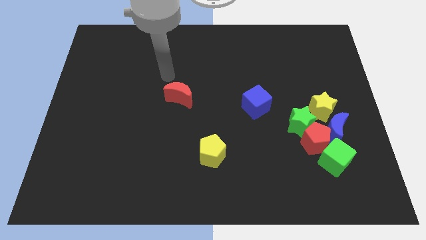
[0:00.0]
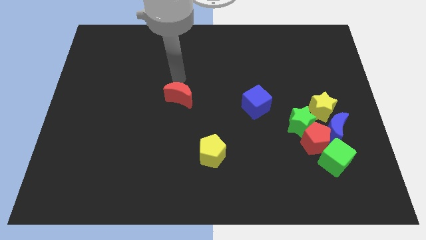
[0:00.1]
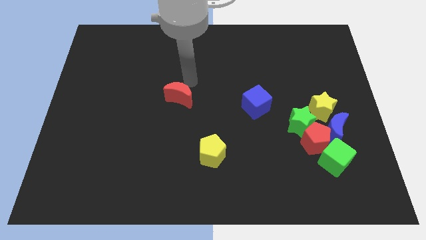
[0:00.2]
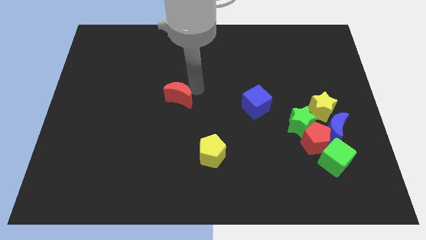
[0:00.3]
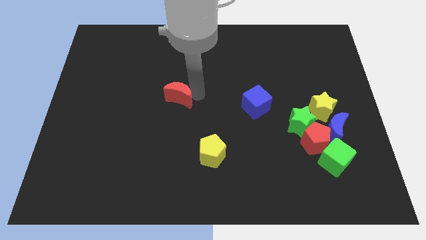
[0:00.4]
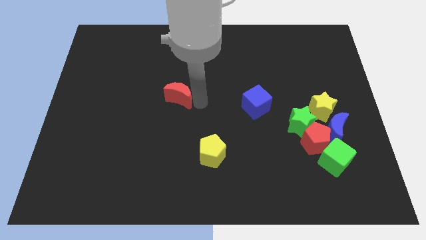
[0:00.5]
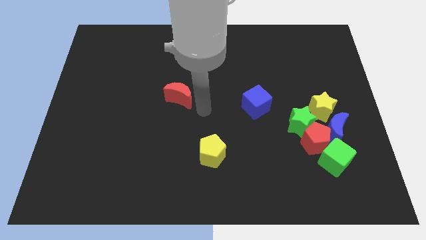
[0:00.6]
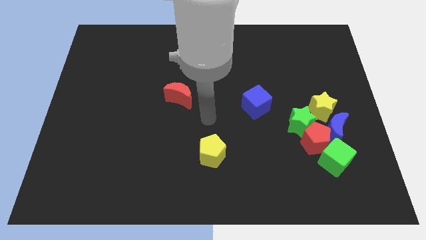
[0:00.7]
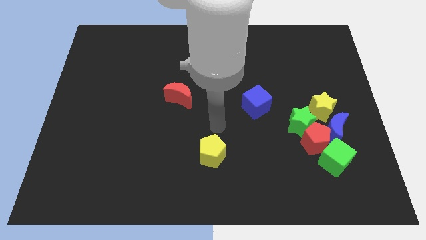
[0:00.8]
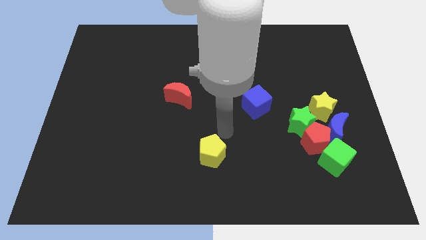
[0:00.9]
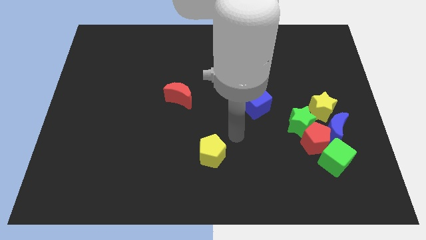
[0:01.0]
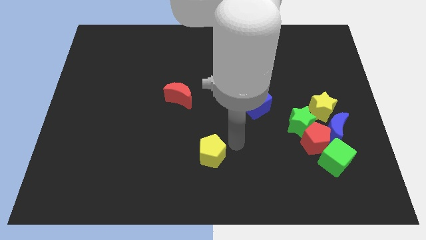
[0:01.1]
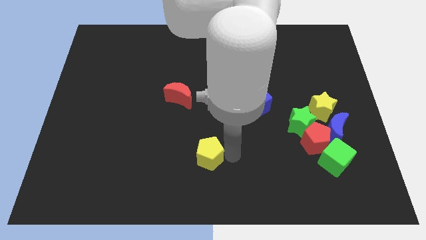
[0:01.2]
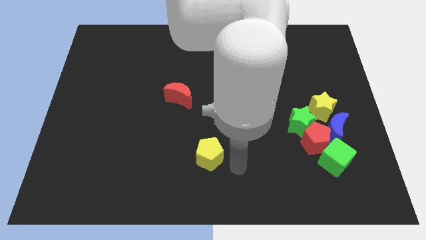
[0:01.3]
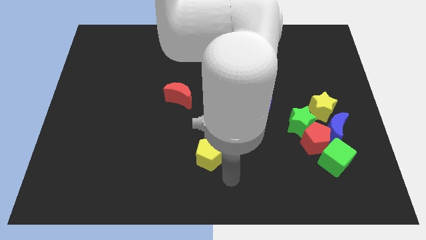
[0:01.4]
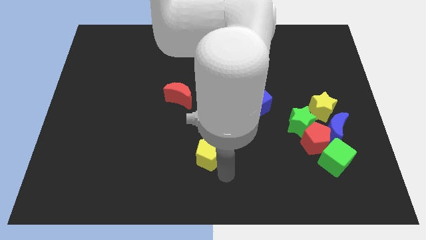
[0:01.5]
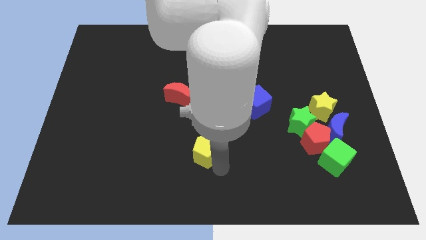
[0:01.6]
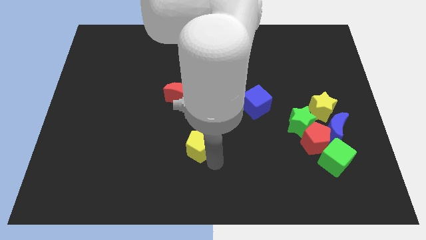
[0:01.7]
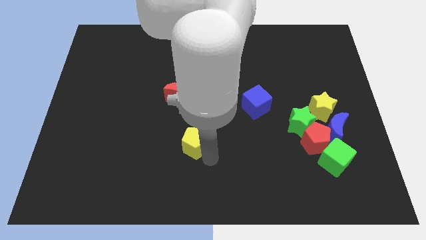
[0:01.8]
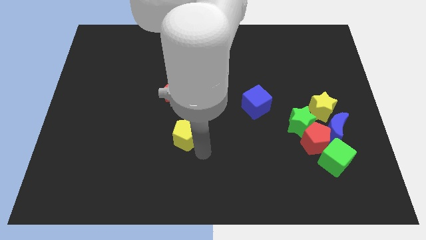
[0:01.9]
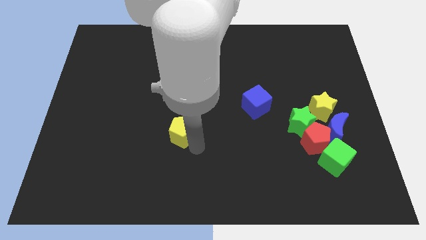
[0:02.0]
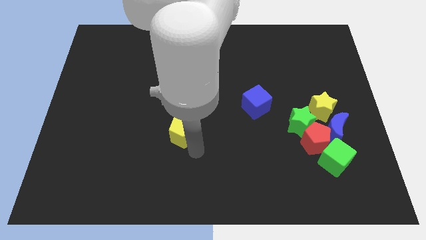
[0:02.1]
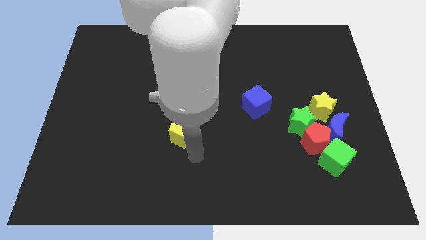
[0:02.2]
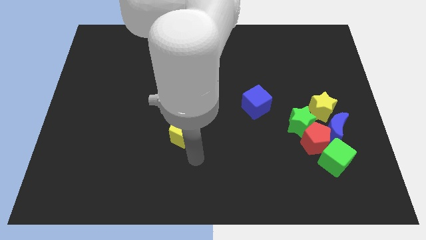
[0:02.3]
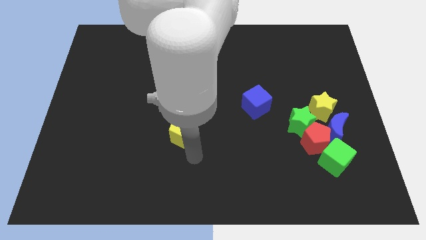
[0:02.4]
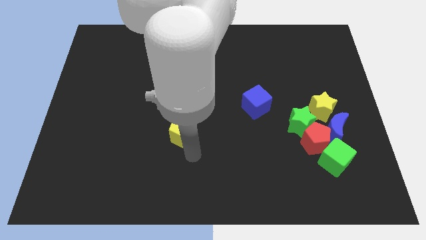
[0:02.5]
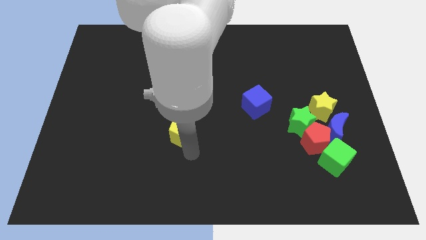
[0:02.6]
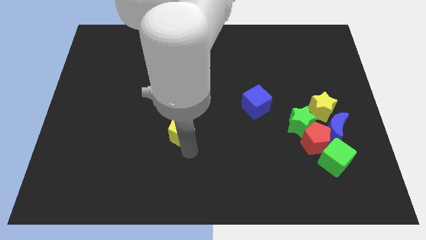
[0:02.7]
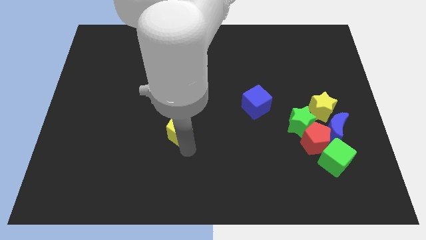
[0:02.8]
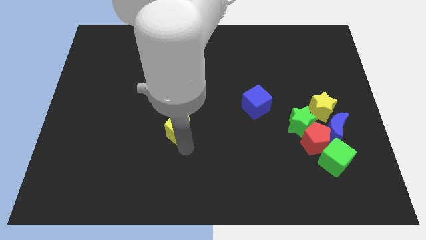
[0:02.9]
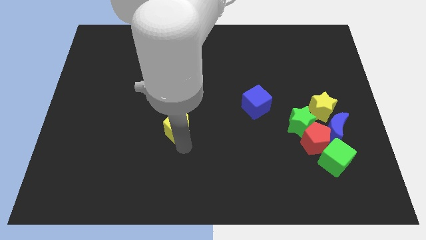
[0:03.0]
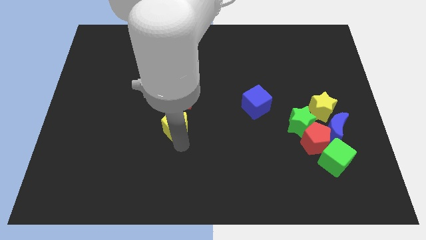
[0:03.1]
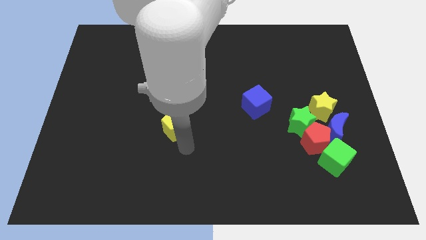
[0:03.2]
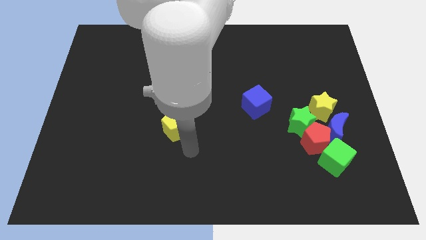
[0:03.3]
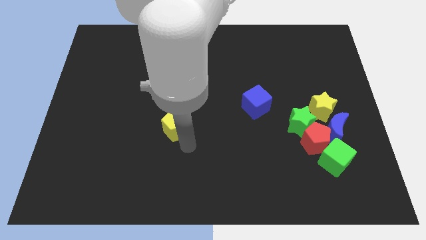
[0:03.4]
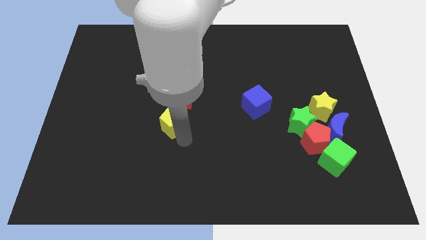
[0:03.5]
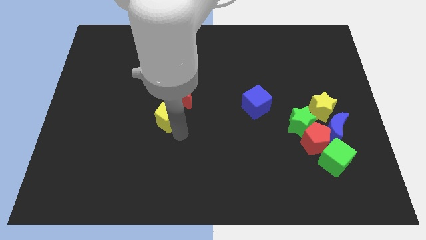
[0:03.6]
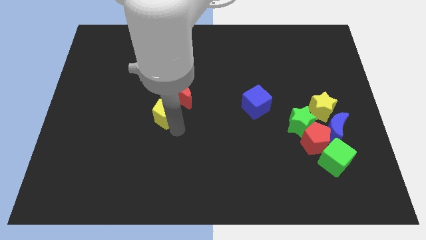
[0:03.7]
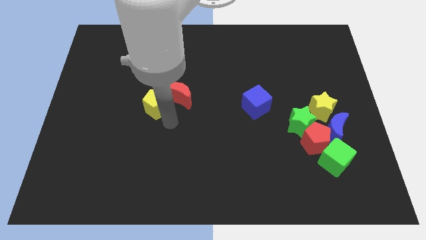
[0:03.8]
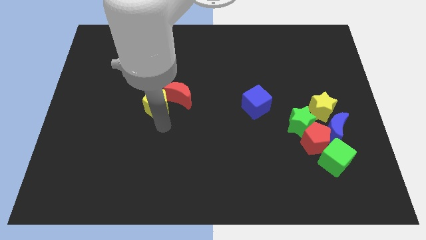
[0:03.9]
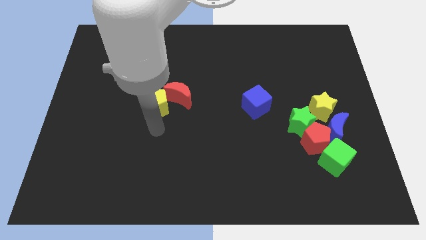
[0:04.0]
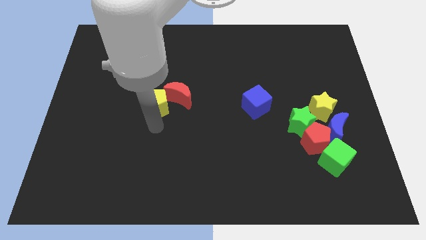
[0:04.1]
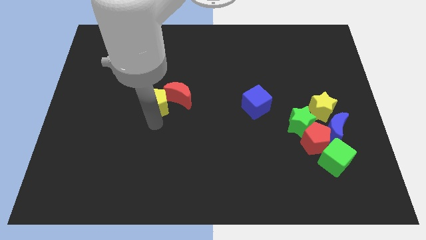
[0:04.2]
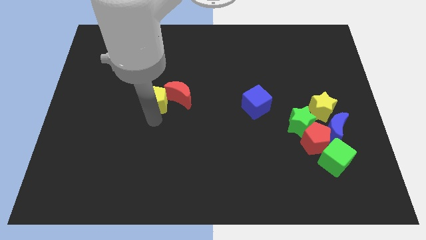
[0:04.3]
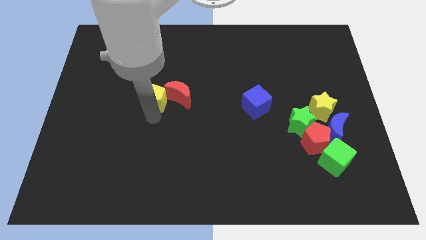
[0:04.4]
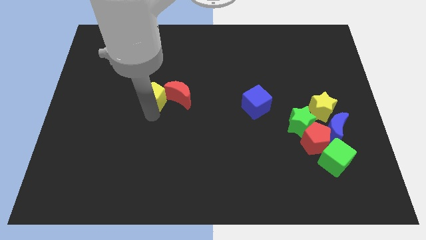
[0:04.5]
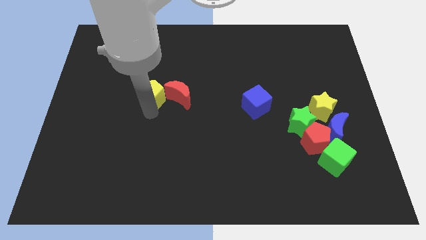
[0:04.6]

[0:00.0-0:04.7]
move the yellow pentagon to the top left side of the red moon

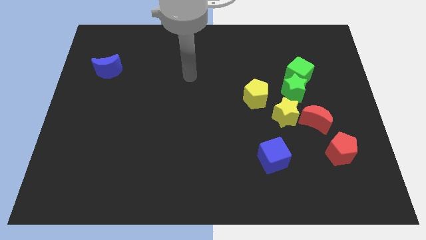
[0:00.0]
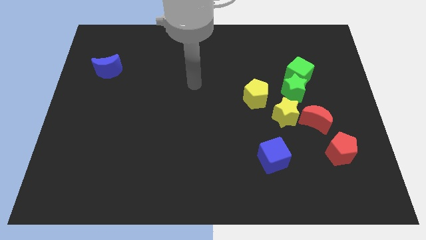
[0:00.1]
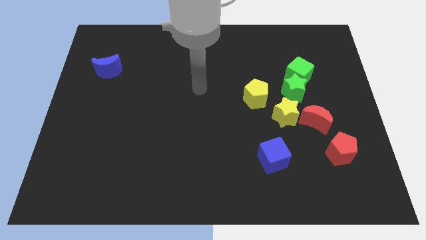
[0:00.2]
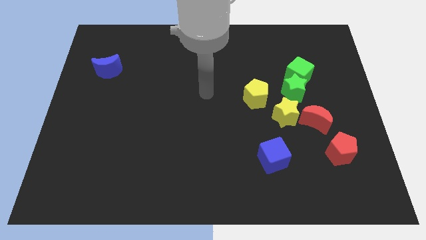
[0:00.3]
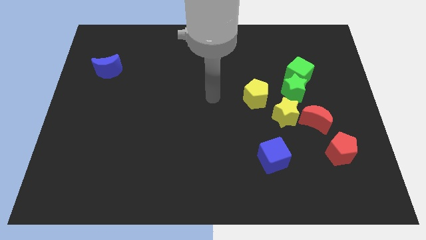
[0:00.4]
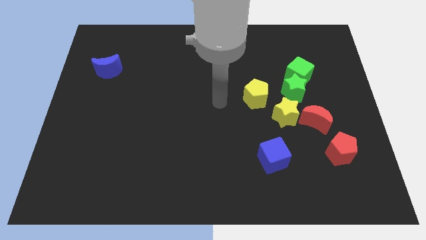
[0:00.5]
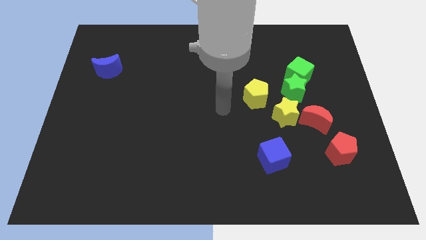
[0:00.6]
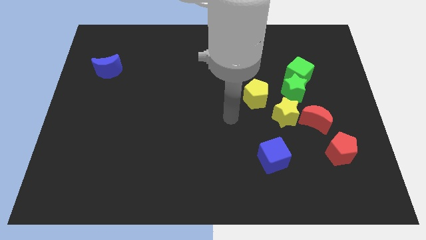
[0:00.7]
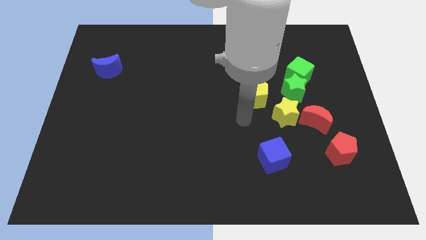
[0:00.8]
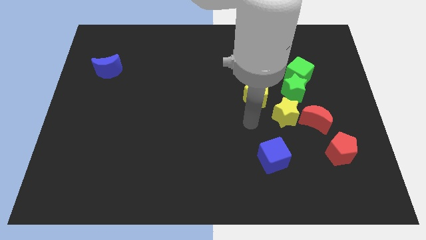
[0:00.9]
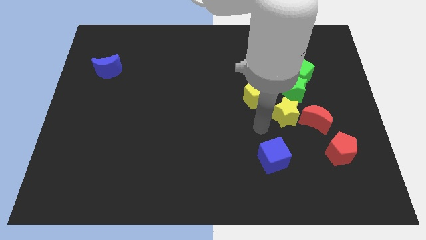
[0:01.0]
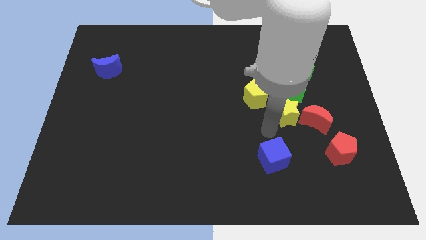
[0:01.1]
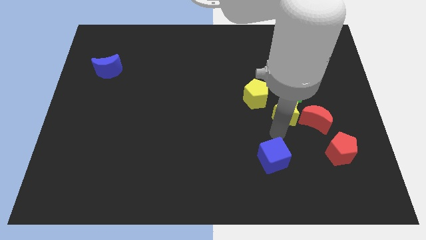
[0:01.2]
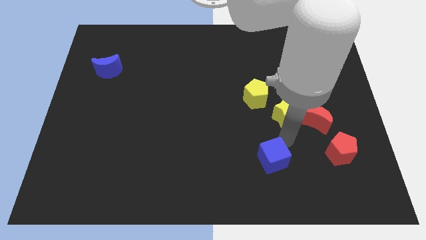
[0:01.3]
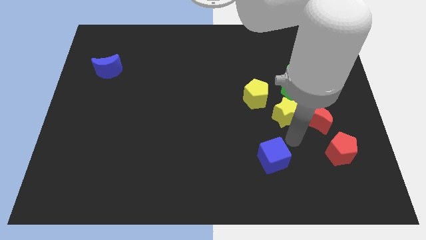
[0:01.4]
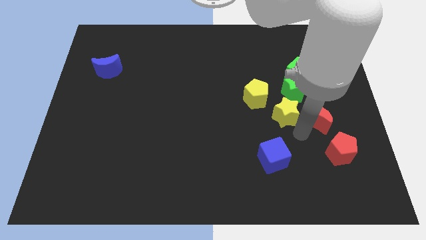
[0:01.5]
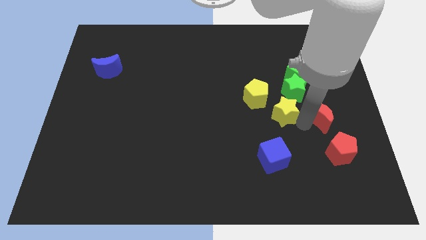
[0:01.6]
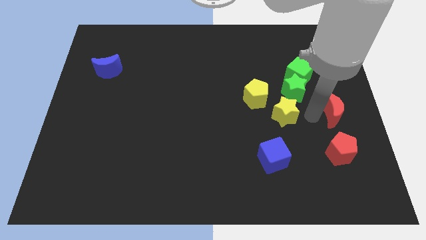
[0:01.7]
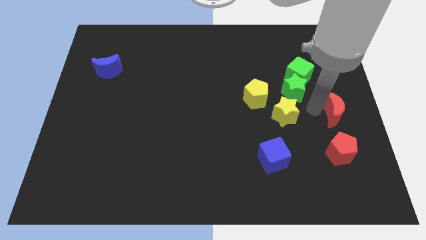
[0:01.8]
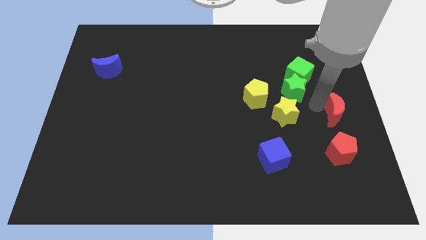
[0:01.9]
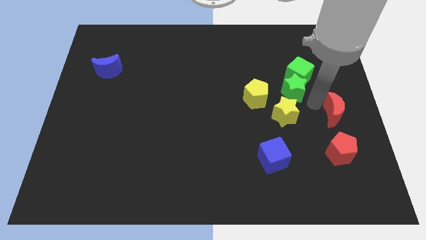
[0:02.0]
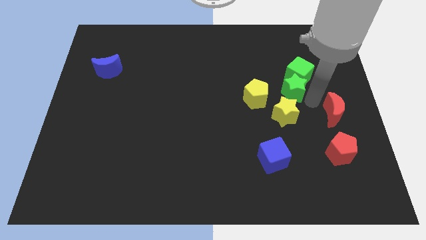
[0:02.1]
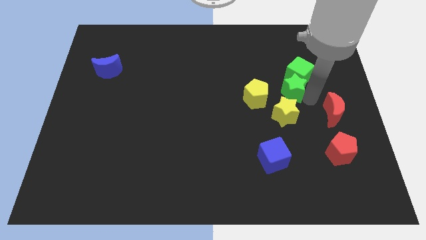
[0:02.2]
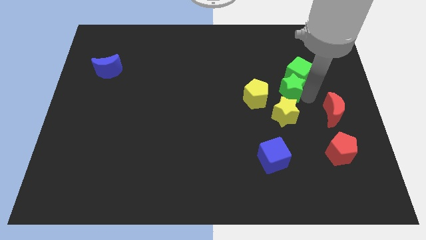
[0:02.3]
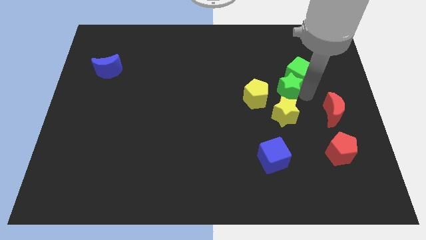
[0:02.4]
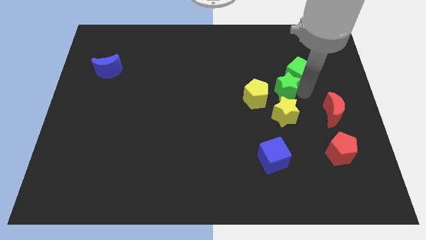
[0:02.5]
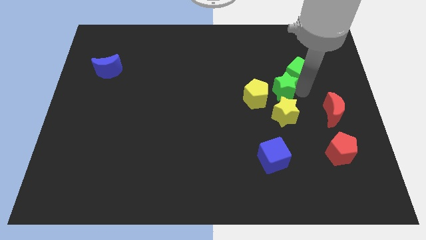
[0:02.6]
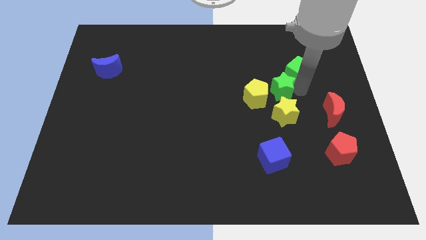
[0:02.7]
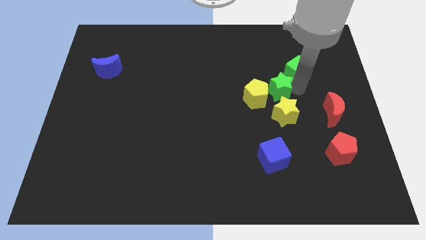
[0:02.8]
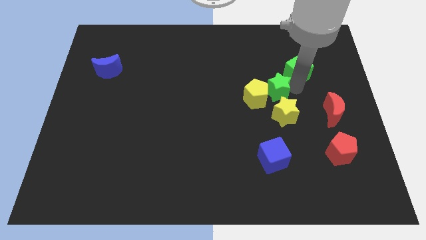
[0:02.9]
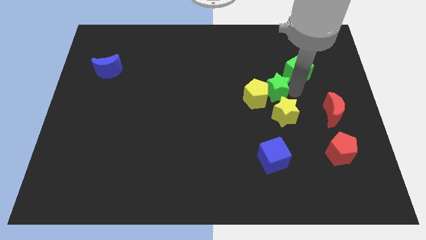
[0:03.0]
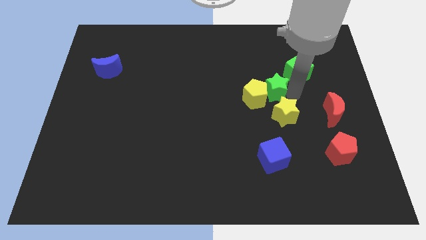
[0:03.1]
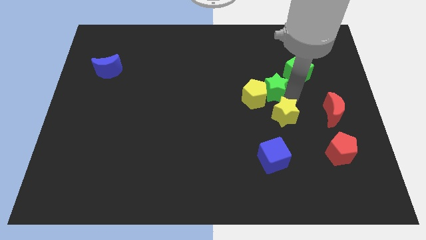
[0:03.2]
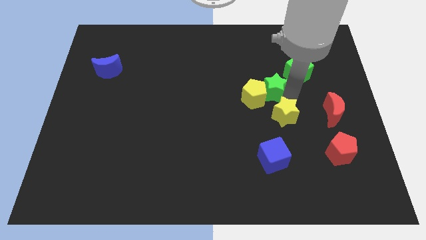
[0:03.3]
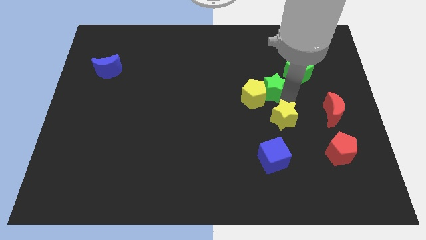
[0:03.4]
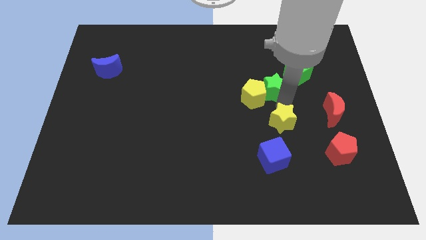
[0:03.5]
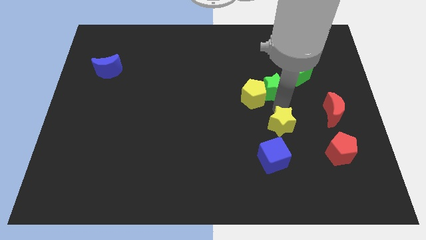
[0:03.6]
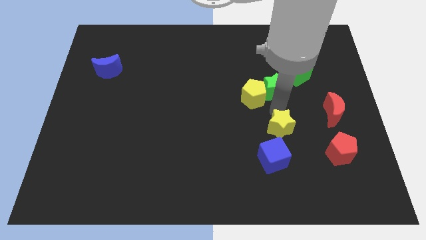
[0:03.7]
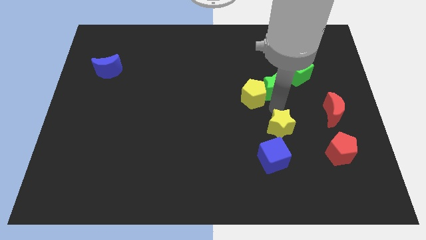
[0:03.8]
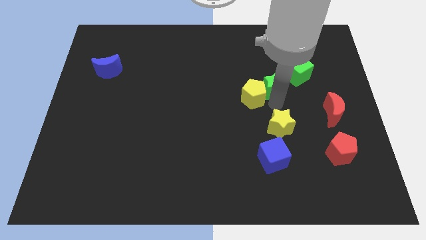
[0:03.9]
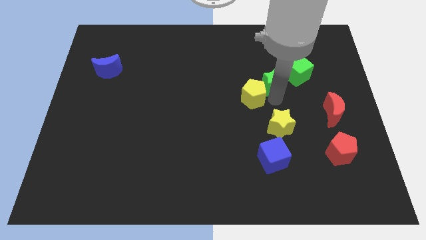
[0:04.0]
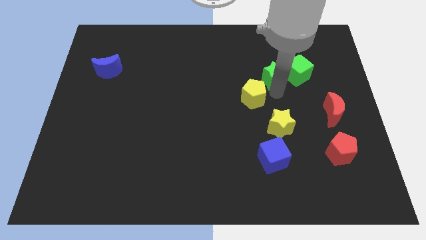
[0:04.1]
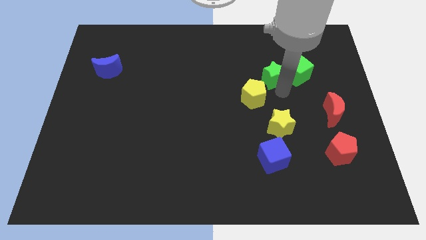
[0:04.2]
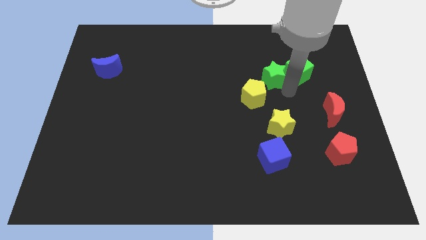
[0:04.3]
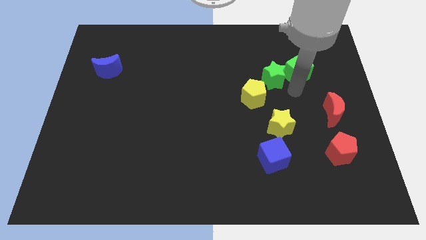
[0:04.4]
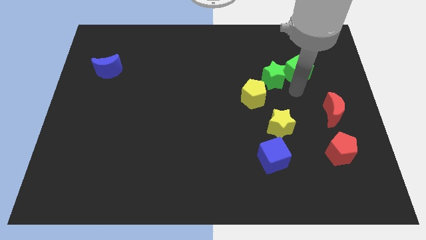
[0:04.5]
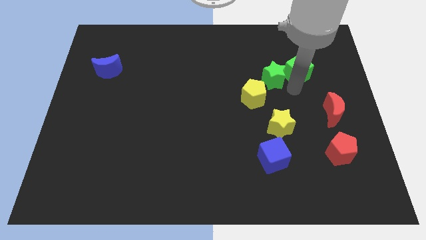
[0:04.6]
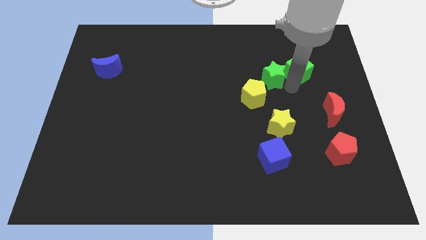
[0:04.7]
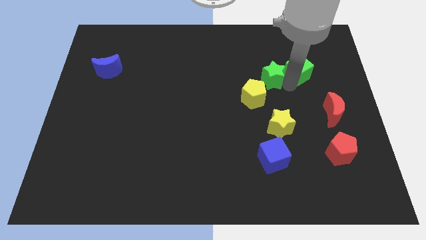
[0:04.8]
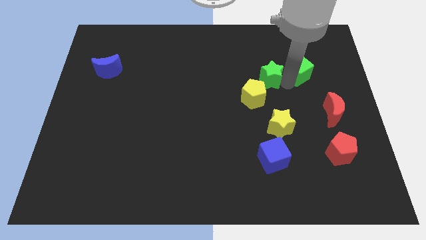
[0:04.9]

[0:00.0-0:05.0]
push the green star to the top of the yellow pentagon
